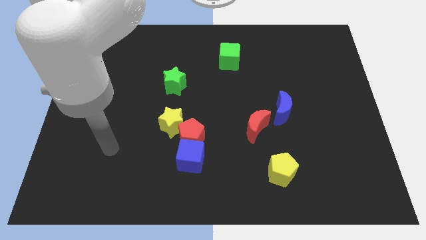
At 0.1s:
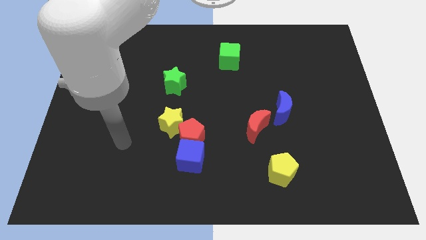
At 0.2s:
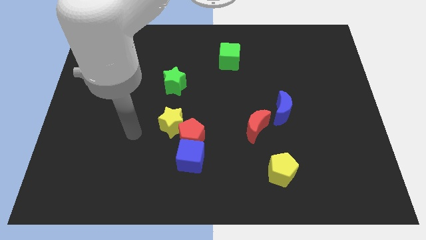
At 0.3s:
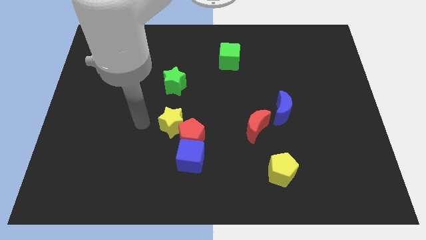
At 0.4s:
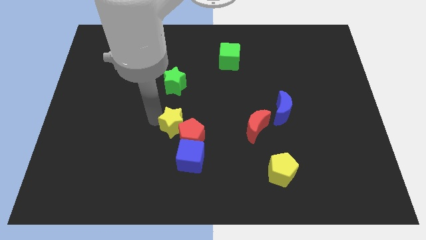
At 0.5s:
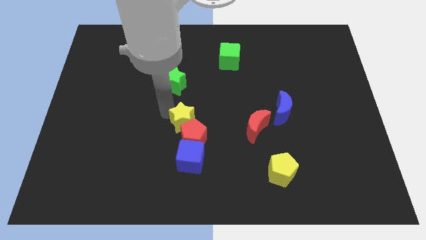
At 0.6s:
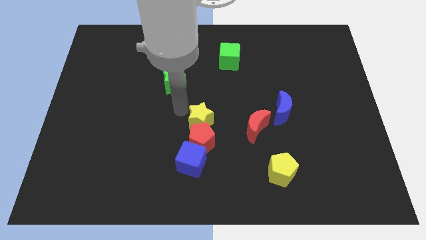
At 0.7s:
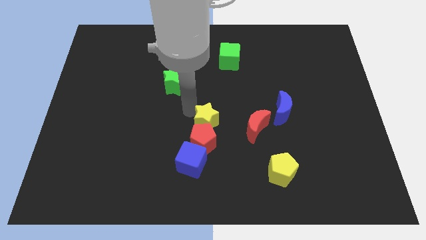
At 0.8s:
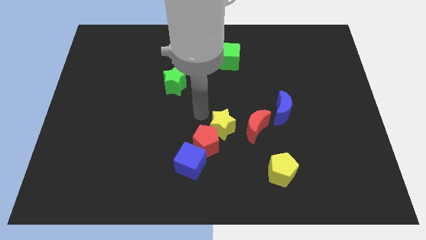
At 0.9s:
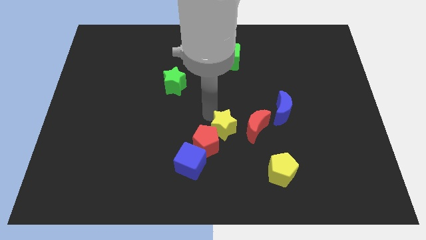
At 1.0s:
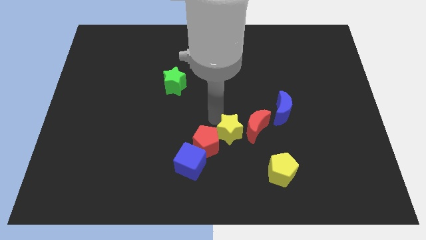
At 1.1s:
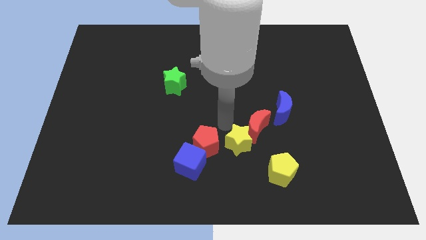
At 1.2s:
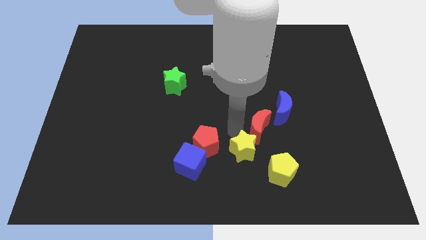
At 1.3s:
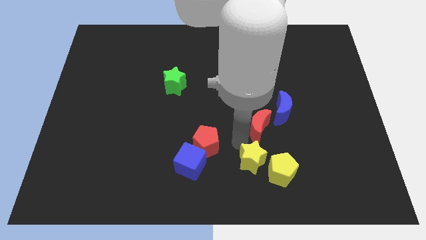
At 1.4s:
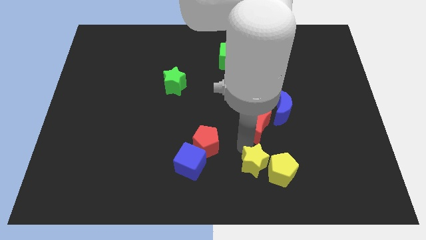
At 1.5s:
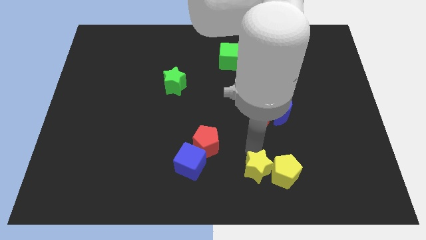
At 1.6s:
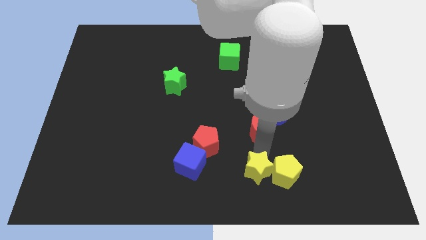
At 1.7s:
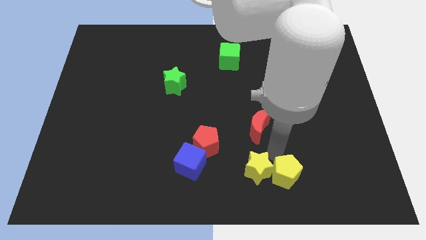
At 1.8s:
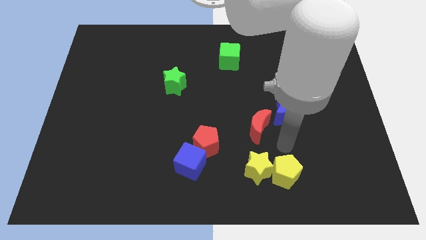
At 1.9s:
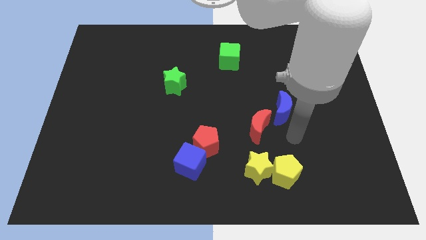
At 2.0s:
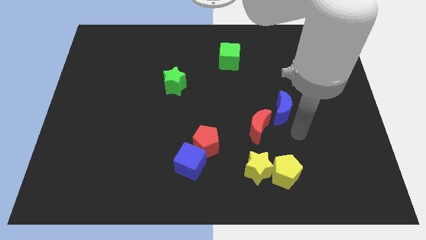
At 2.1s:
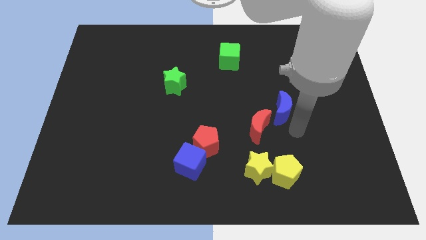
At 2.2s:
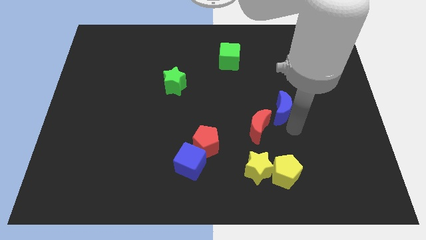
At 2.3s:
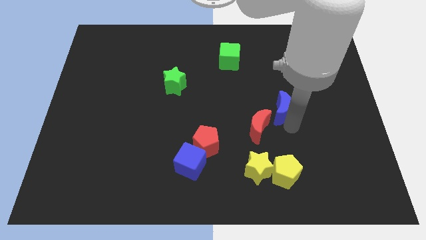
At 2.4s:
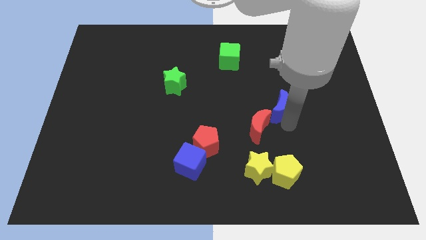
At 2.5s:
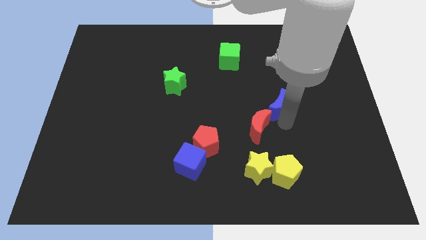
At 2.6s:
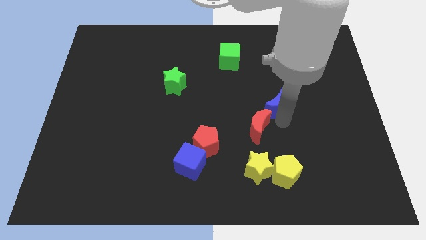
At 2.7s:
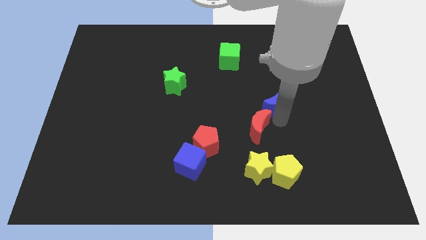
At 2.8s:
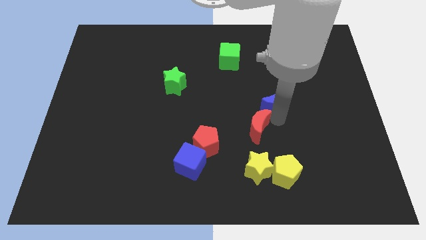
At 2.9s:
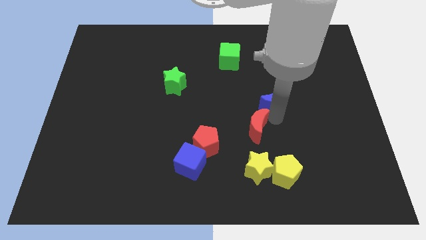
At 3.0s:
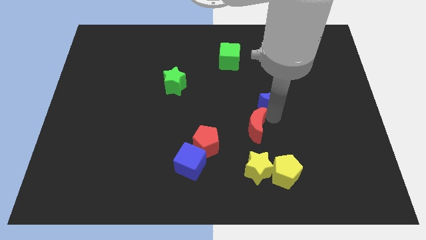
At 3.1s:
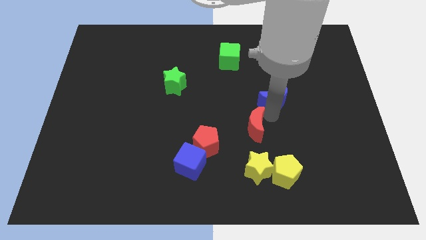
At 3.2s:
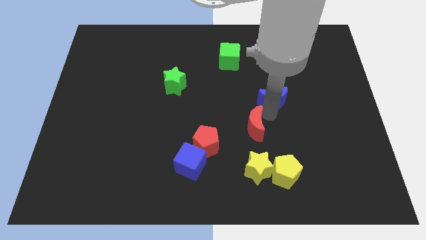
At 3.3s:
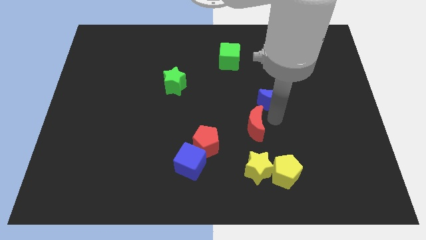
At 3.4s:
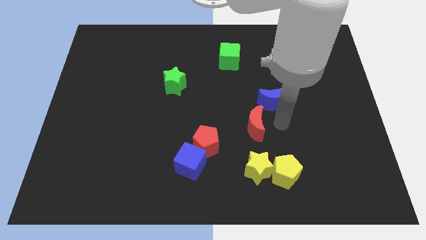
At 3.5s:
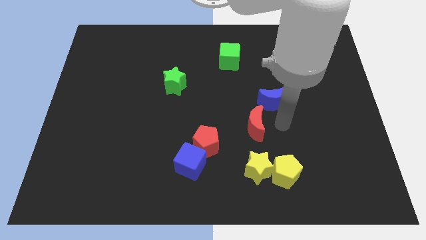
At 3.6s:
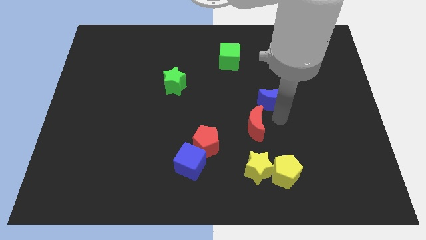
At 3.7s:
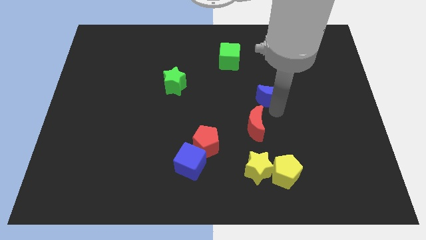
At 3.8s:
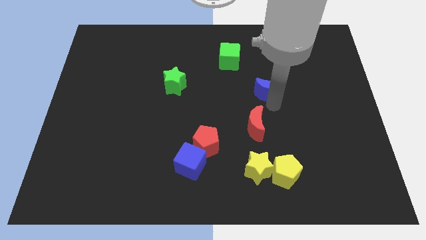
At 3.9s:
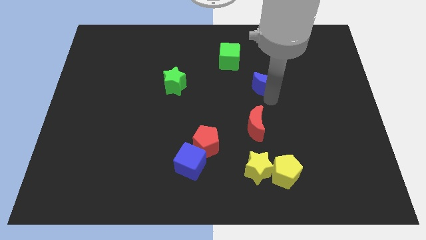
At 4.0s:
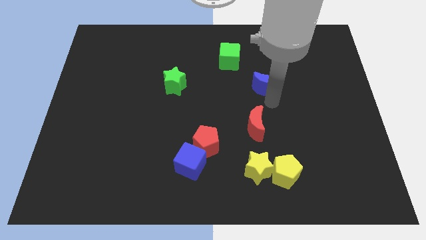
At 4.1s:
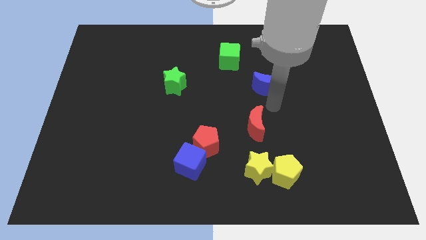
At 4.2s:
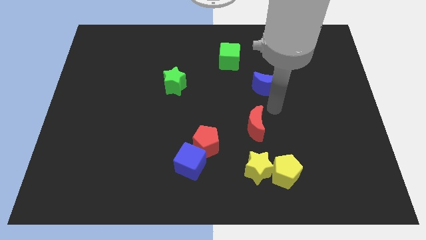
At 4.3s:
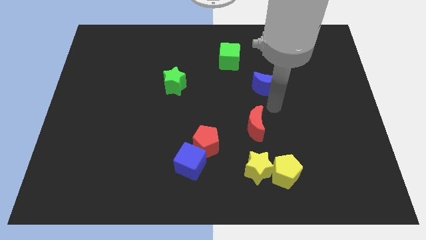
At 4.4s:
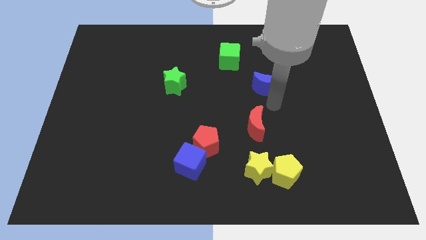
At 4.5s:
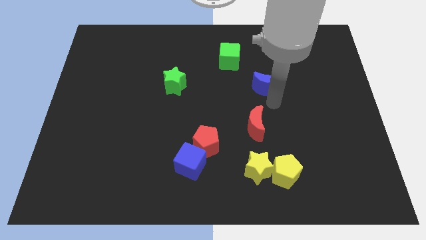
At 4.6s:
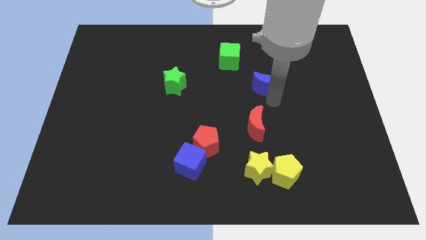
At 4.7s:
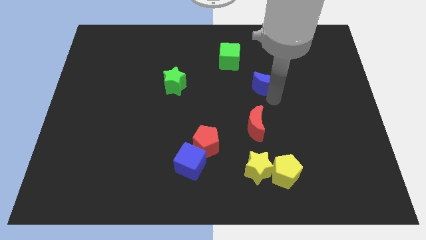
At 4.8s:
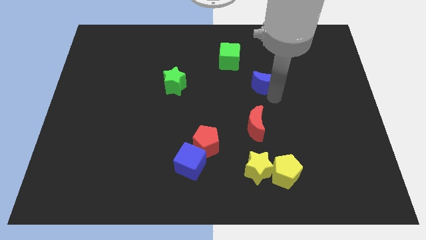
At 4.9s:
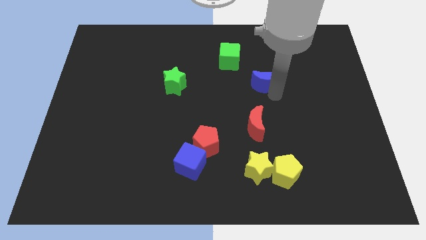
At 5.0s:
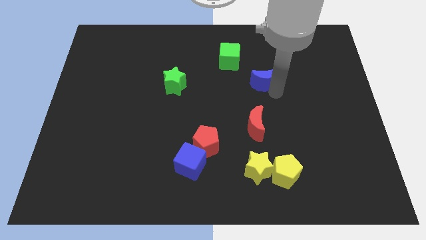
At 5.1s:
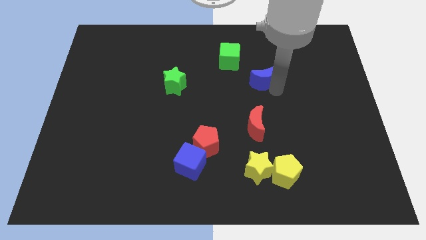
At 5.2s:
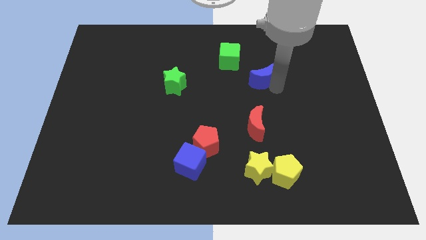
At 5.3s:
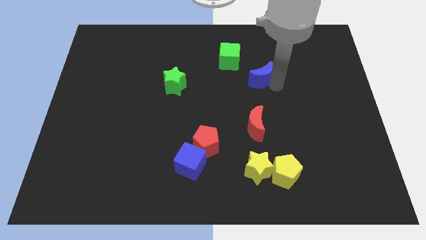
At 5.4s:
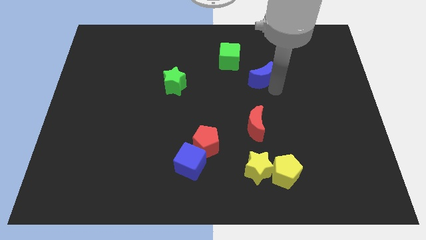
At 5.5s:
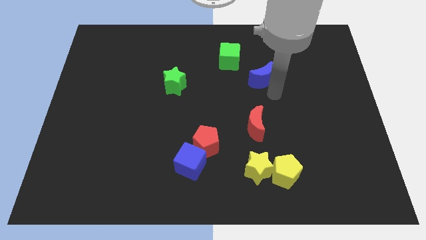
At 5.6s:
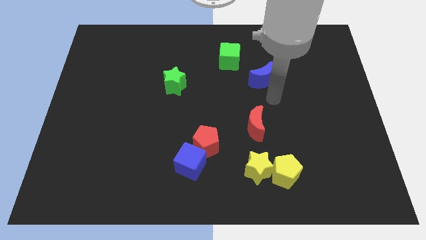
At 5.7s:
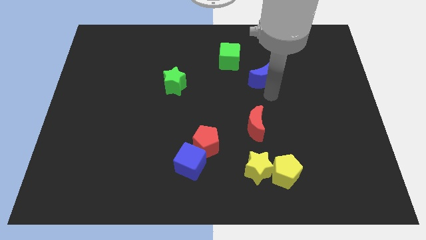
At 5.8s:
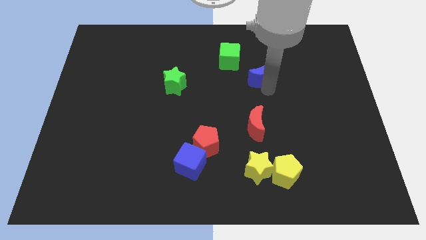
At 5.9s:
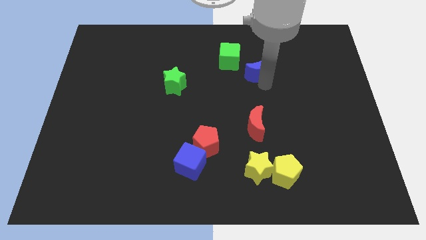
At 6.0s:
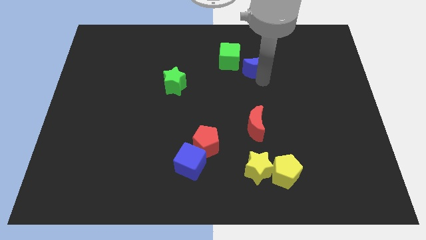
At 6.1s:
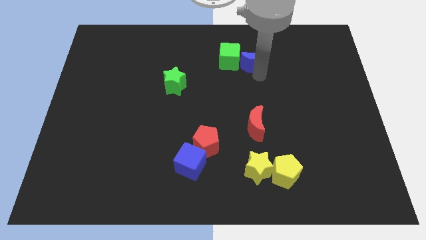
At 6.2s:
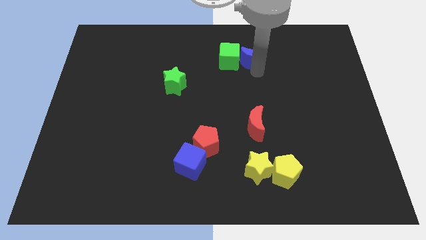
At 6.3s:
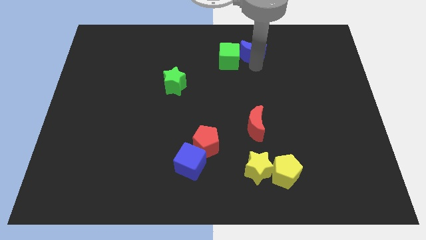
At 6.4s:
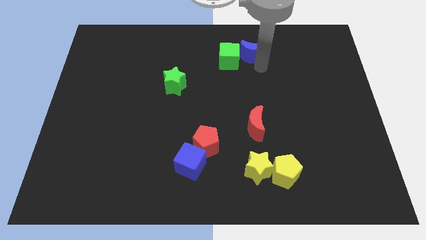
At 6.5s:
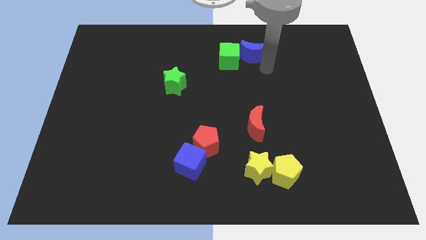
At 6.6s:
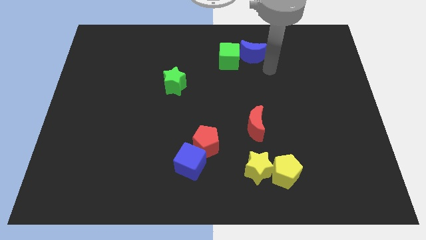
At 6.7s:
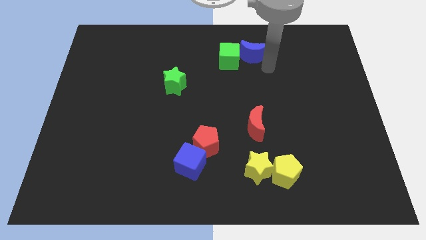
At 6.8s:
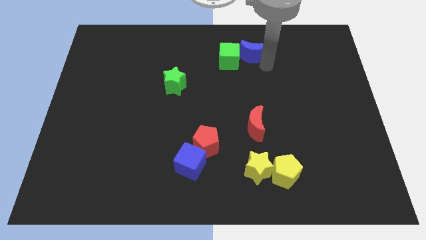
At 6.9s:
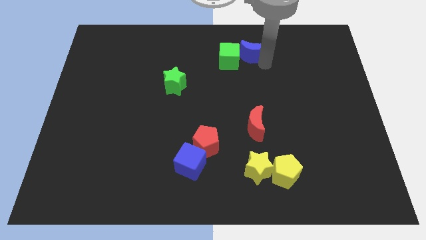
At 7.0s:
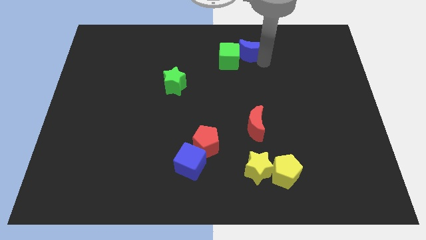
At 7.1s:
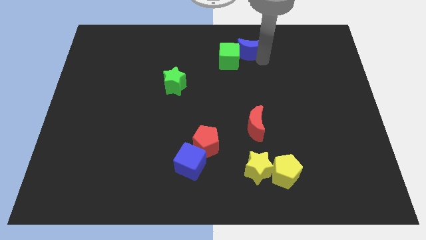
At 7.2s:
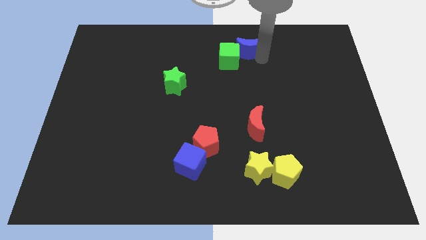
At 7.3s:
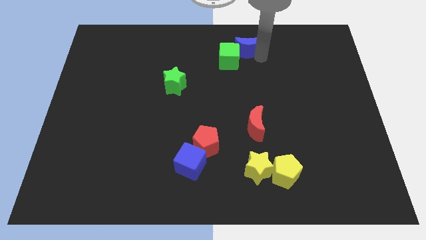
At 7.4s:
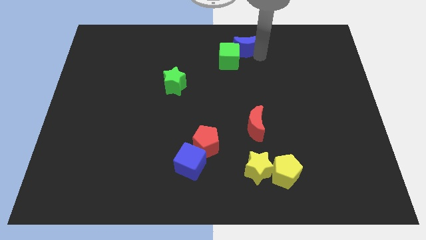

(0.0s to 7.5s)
slide the blue moon to the top side
